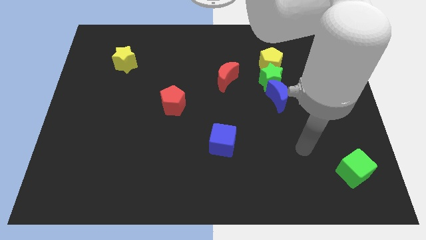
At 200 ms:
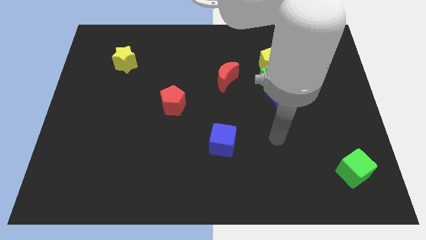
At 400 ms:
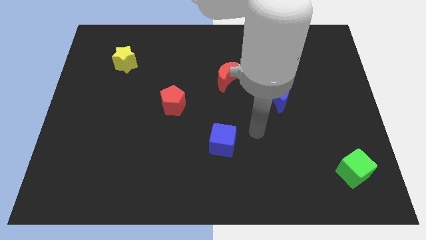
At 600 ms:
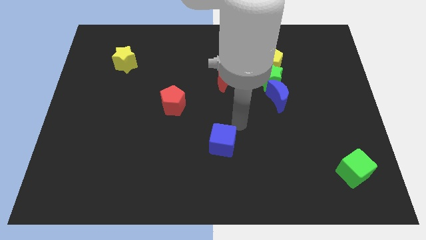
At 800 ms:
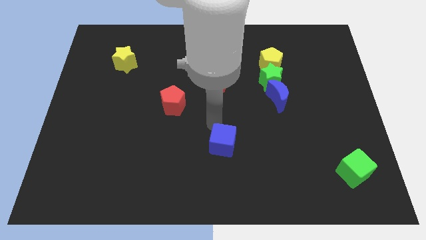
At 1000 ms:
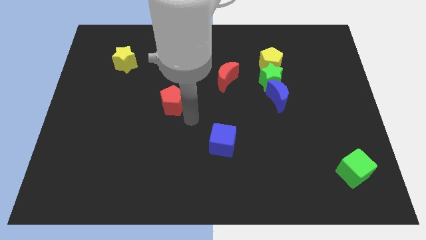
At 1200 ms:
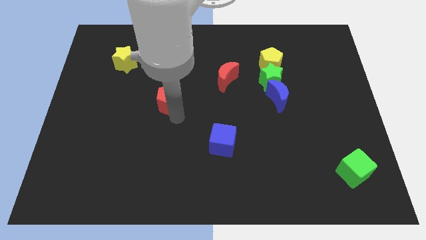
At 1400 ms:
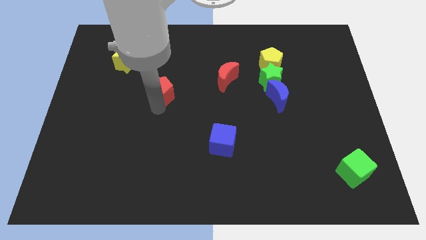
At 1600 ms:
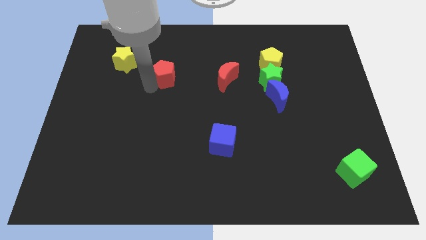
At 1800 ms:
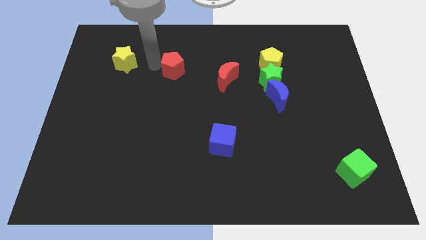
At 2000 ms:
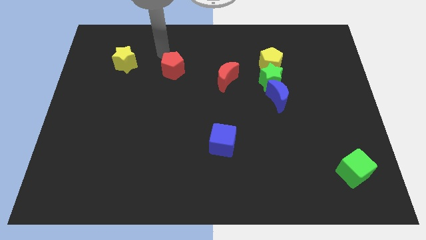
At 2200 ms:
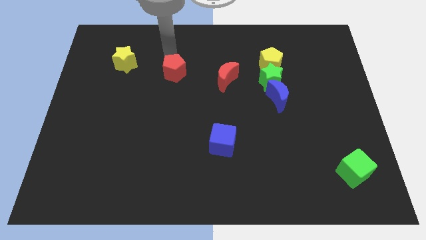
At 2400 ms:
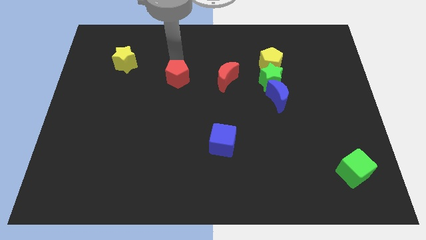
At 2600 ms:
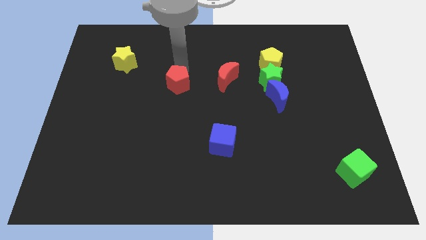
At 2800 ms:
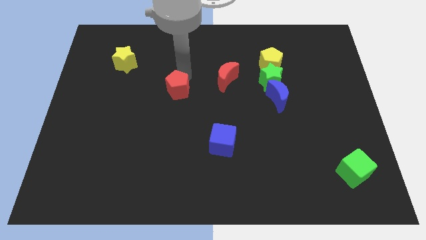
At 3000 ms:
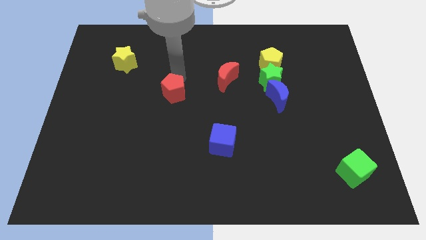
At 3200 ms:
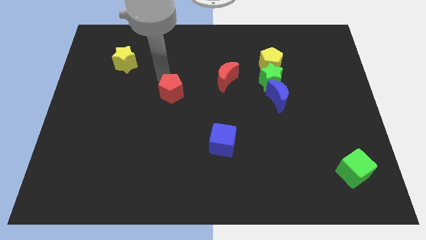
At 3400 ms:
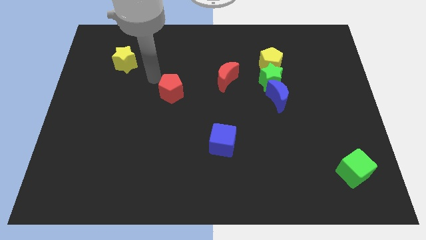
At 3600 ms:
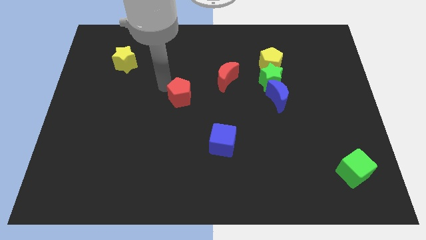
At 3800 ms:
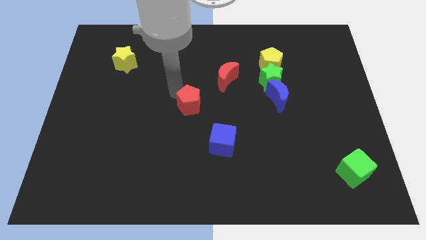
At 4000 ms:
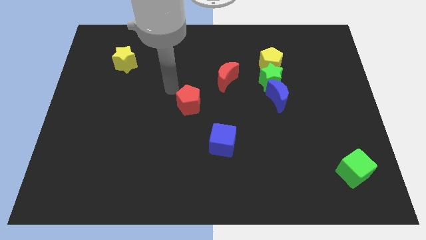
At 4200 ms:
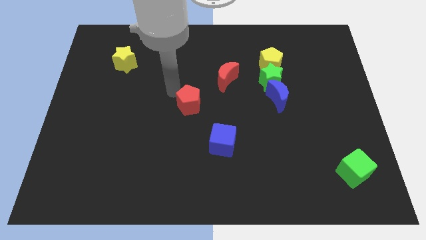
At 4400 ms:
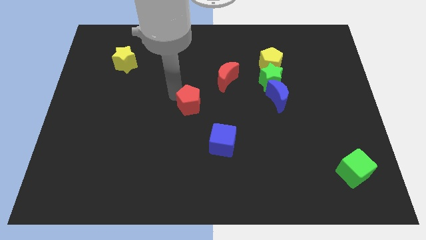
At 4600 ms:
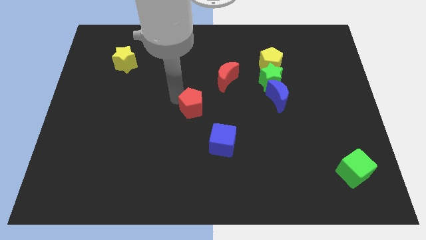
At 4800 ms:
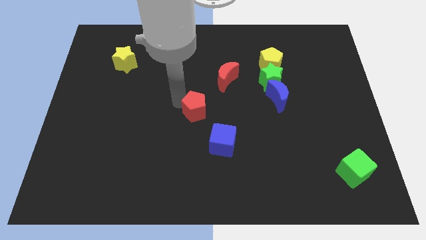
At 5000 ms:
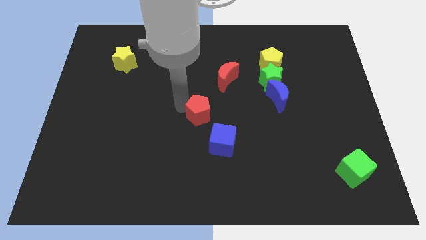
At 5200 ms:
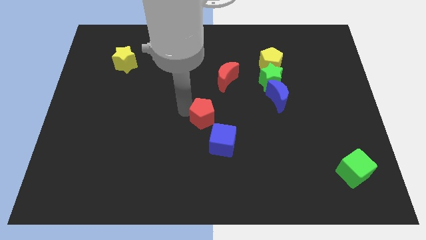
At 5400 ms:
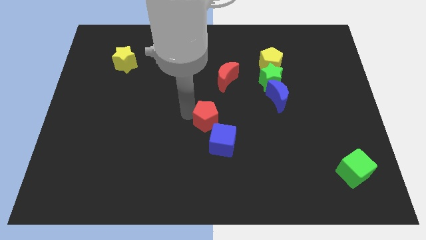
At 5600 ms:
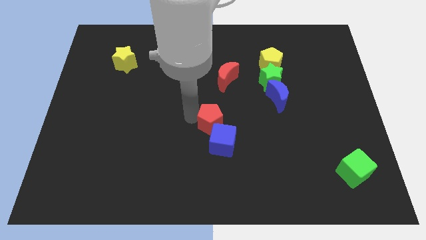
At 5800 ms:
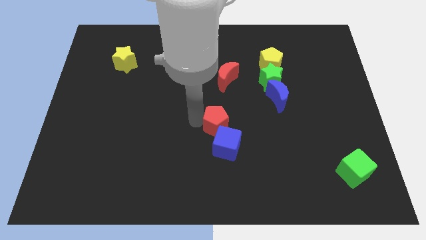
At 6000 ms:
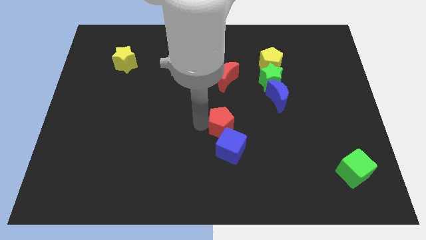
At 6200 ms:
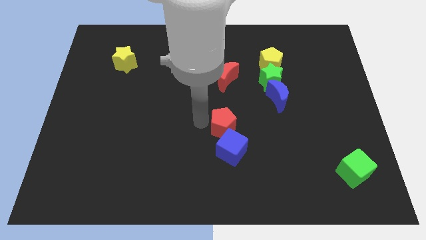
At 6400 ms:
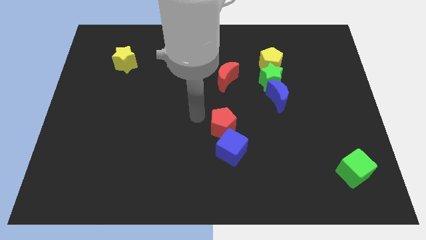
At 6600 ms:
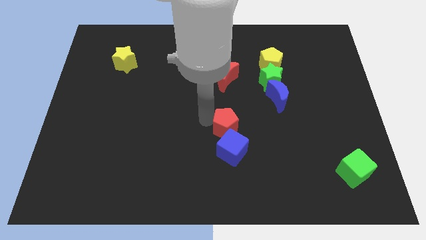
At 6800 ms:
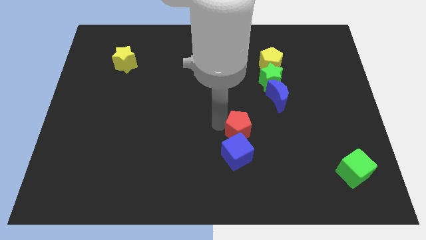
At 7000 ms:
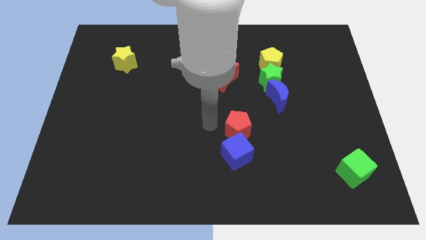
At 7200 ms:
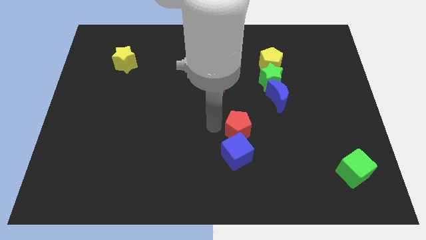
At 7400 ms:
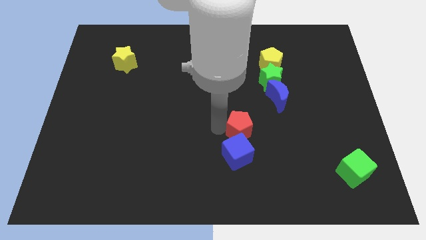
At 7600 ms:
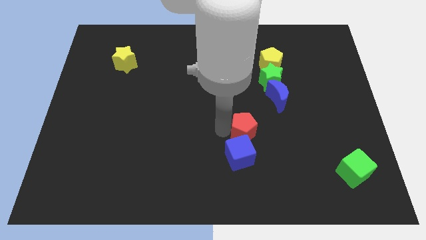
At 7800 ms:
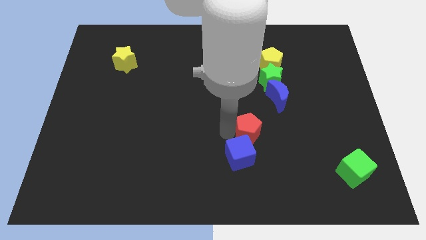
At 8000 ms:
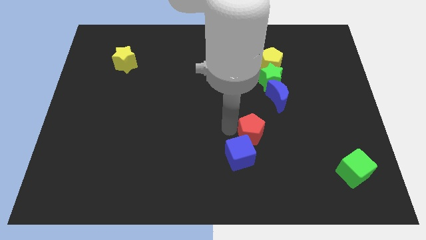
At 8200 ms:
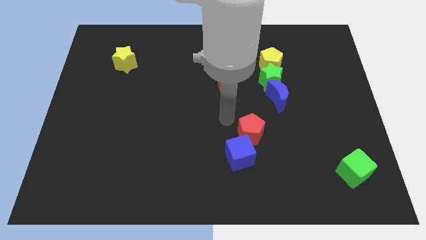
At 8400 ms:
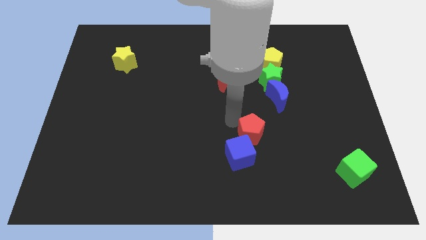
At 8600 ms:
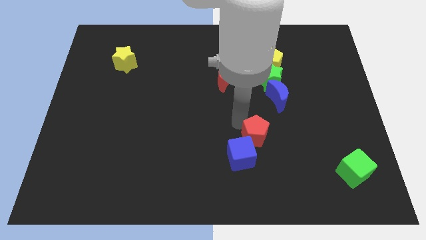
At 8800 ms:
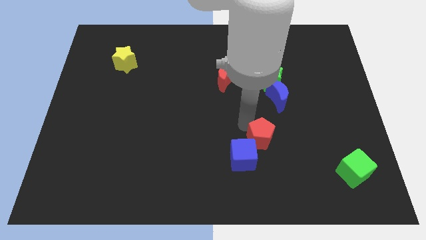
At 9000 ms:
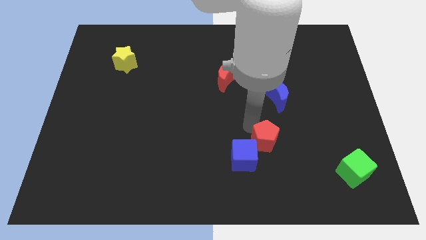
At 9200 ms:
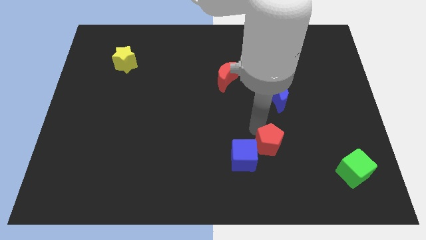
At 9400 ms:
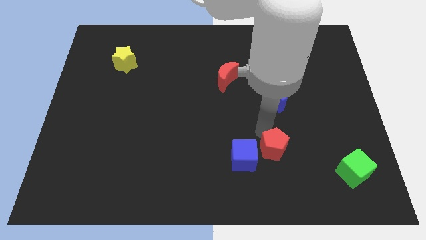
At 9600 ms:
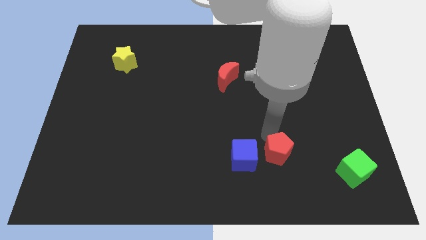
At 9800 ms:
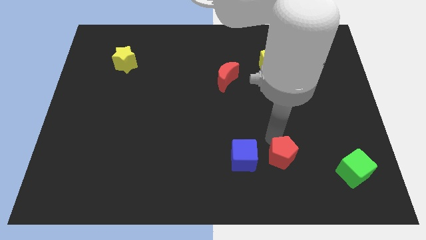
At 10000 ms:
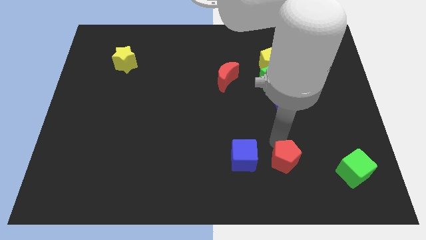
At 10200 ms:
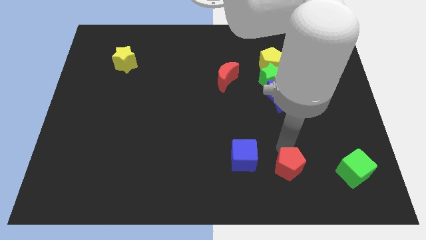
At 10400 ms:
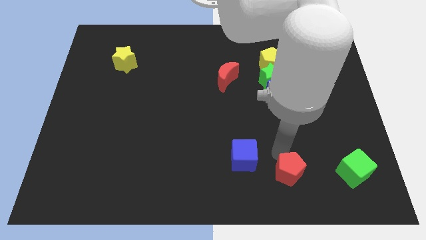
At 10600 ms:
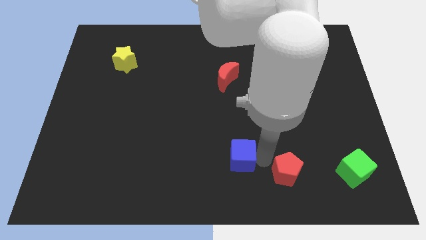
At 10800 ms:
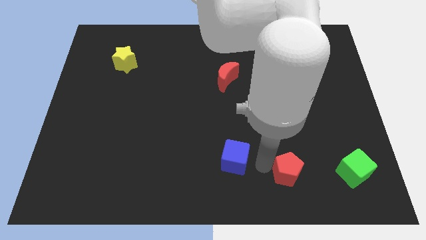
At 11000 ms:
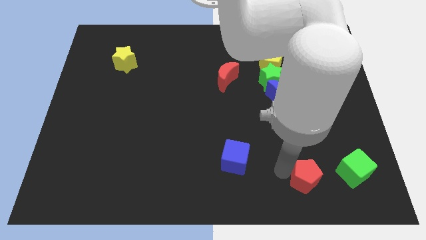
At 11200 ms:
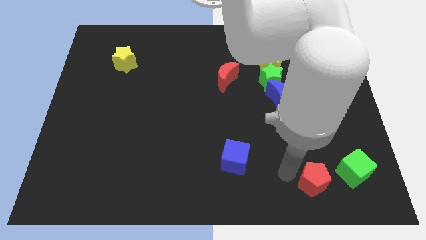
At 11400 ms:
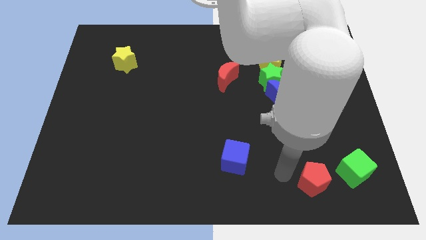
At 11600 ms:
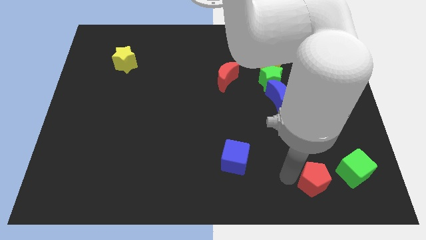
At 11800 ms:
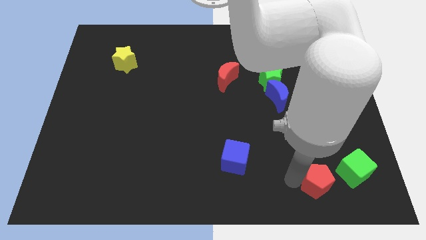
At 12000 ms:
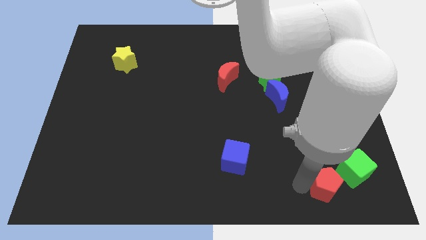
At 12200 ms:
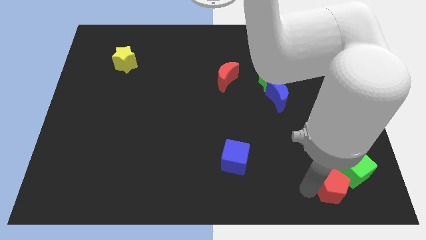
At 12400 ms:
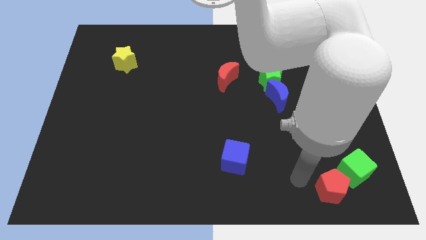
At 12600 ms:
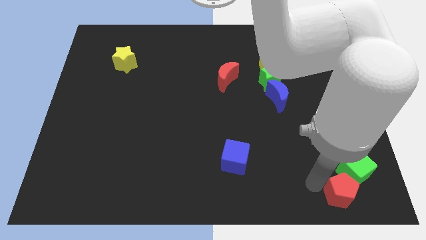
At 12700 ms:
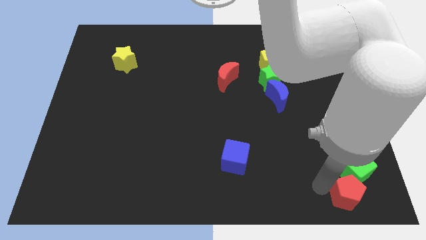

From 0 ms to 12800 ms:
move the red pentagon to the bottom right of the board

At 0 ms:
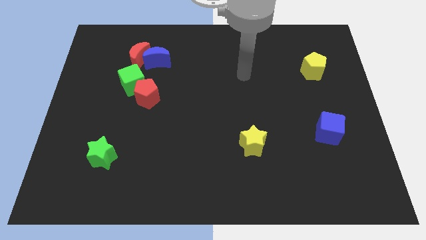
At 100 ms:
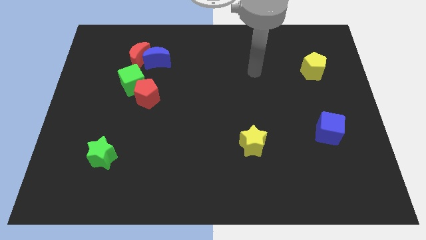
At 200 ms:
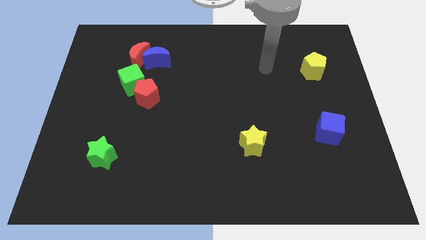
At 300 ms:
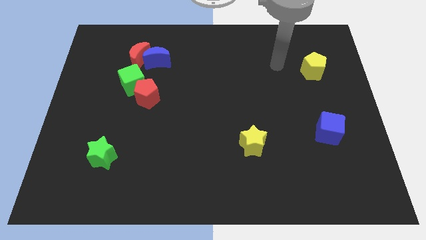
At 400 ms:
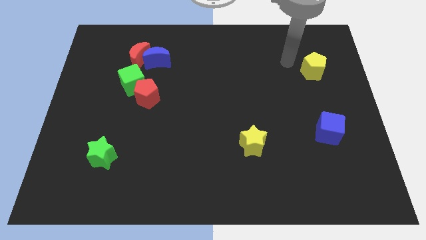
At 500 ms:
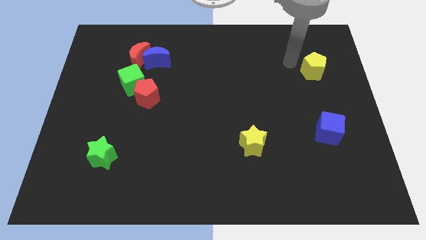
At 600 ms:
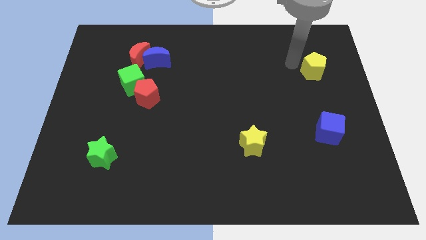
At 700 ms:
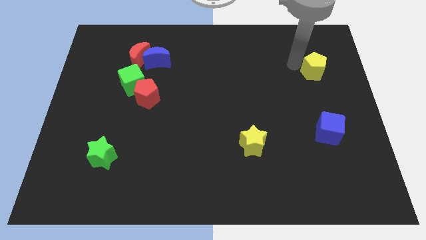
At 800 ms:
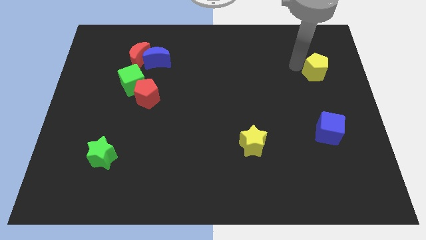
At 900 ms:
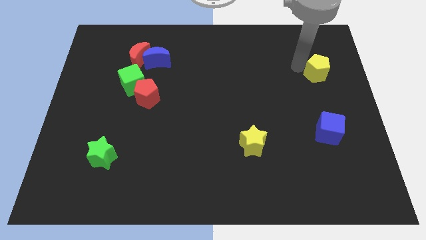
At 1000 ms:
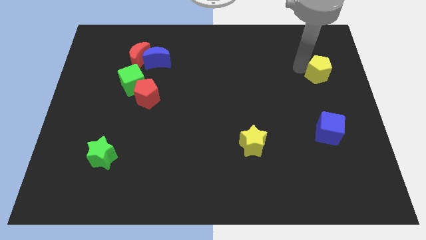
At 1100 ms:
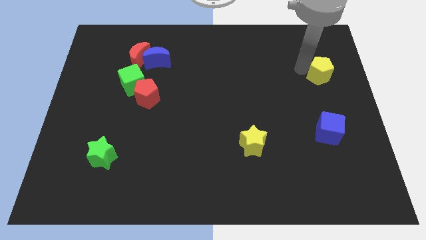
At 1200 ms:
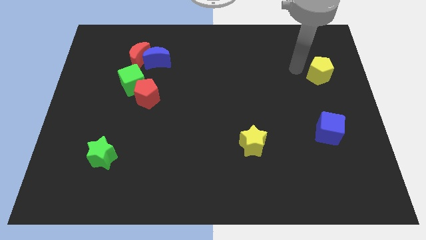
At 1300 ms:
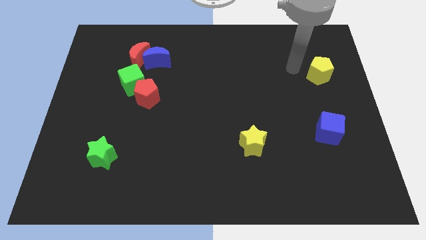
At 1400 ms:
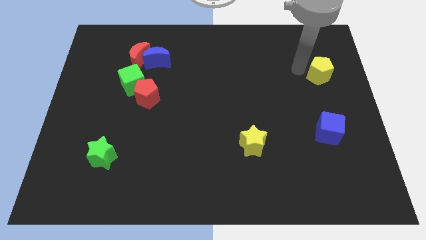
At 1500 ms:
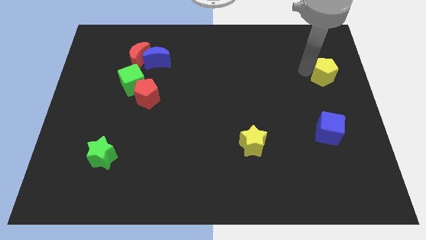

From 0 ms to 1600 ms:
put the yellow pentagon to the center right
